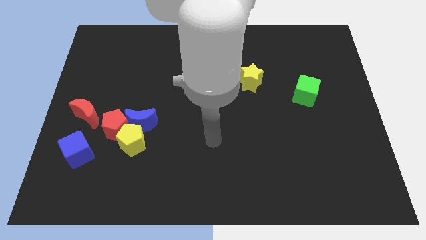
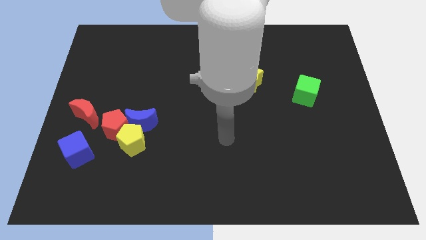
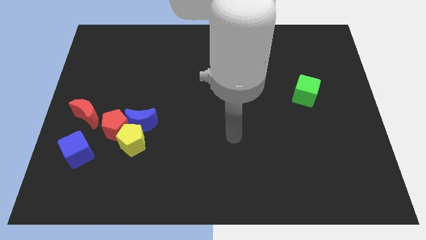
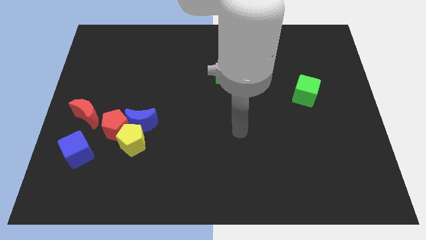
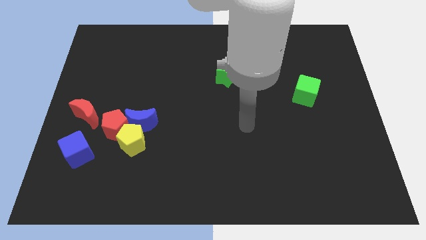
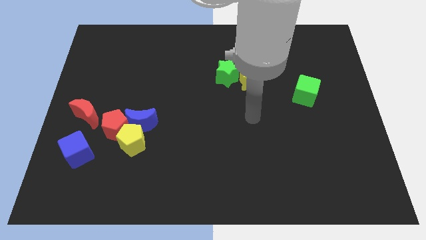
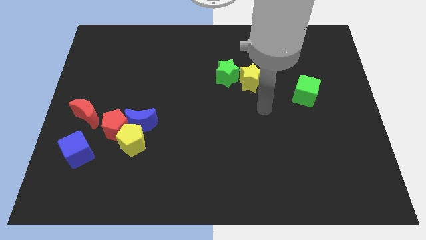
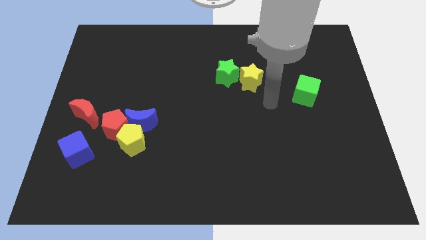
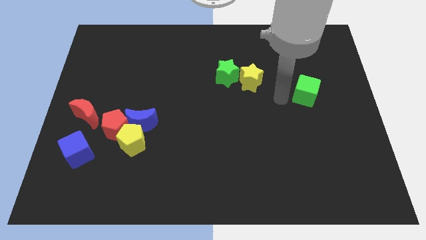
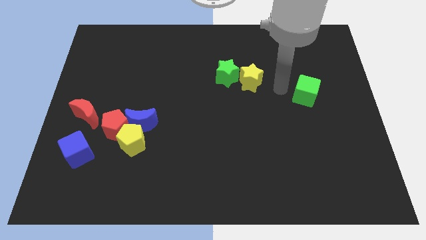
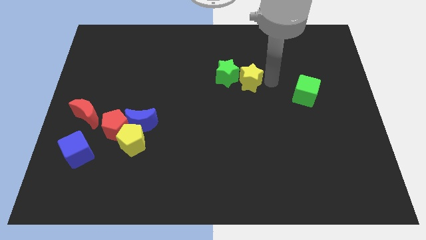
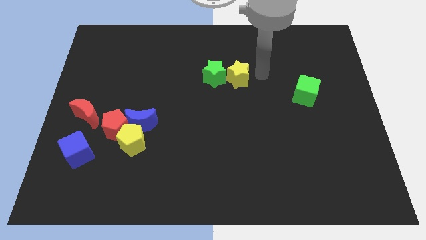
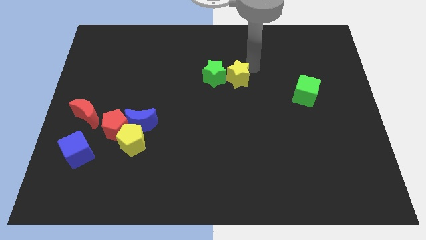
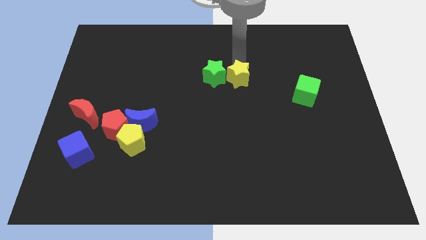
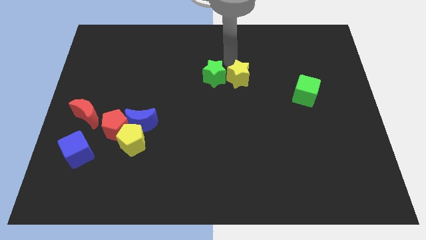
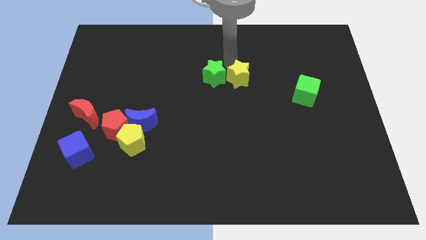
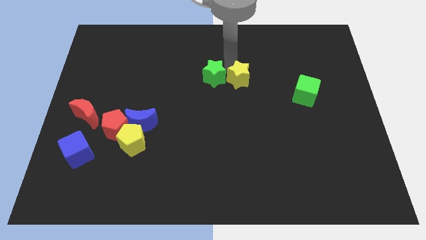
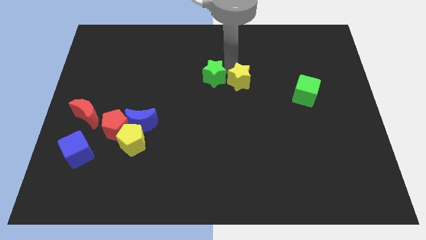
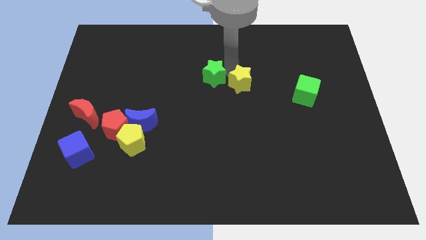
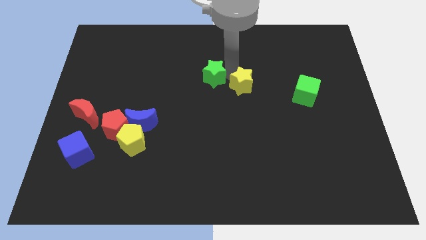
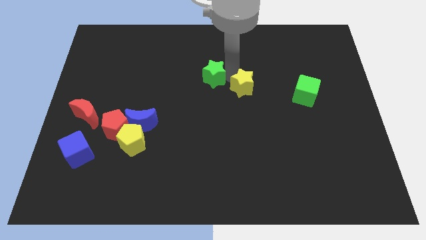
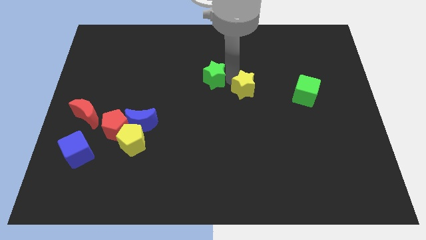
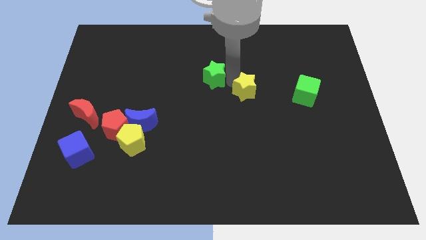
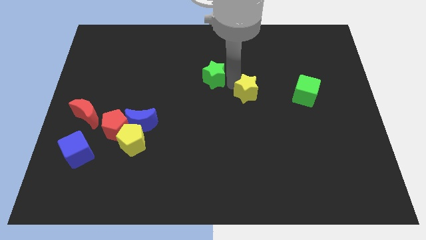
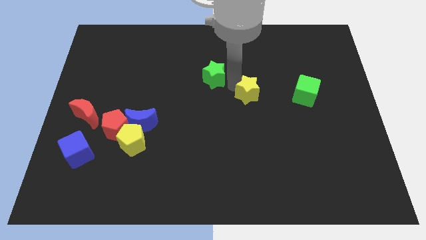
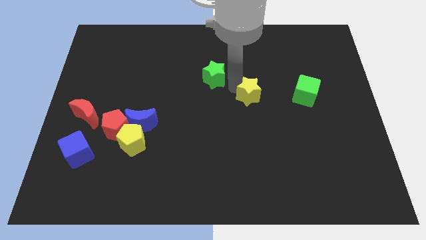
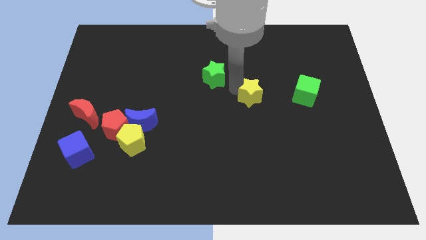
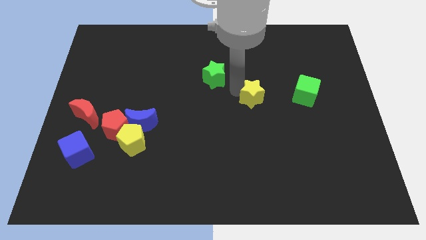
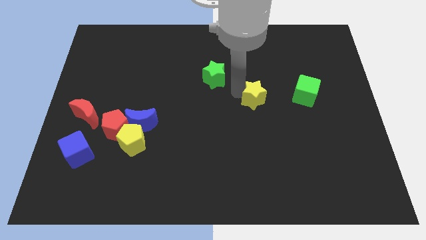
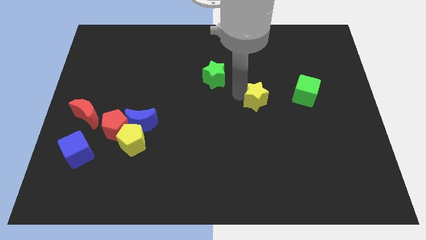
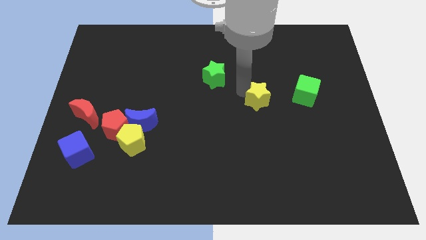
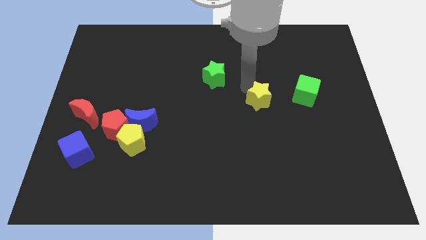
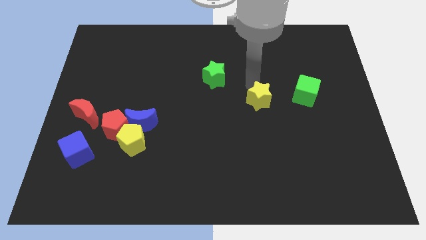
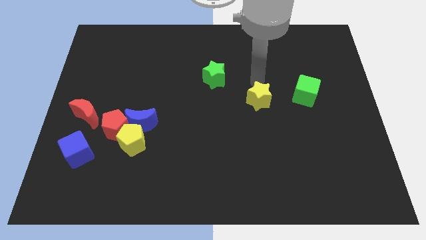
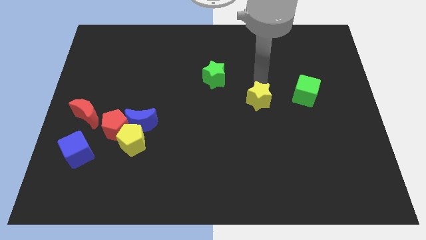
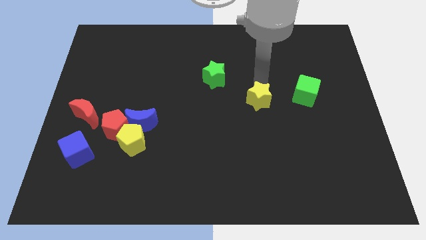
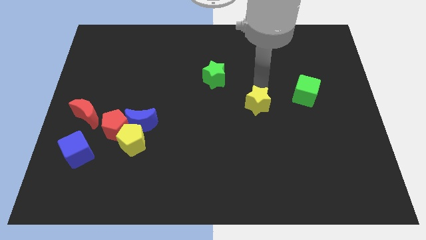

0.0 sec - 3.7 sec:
slide the yellow star slightly downwards

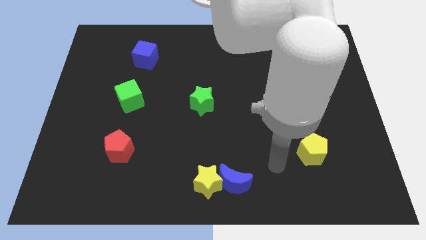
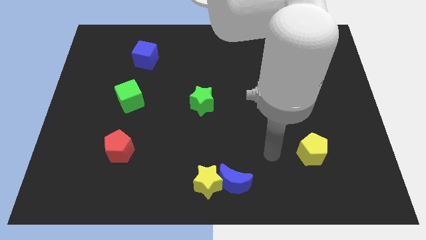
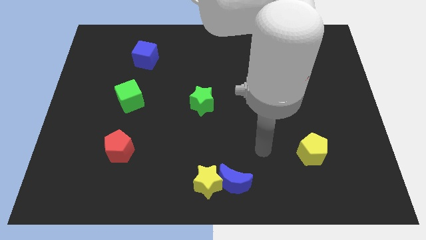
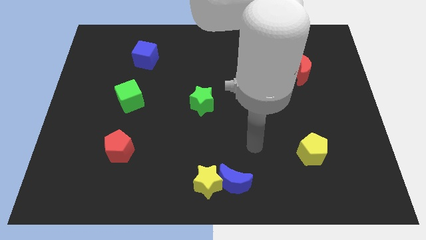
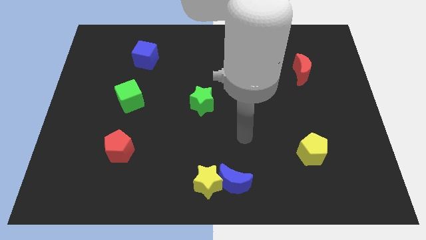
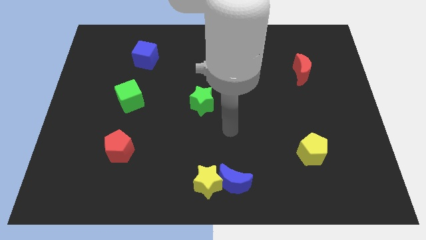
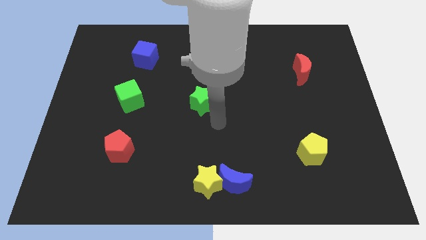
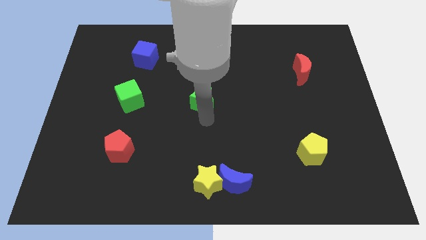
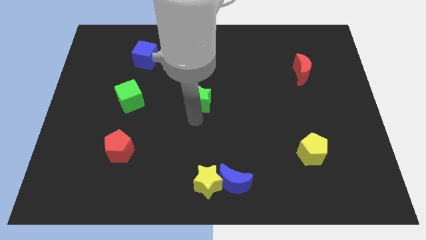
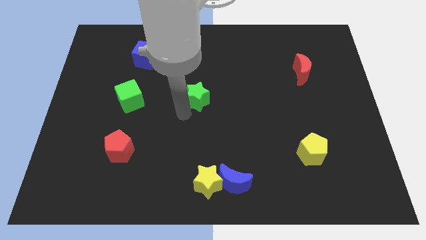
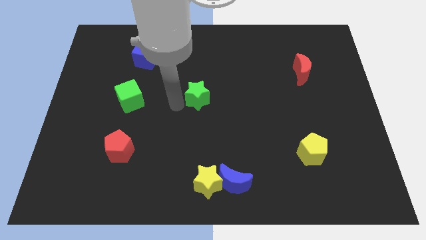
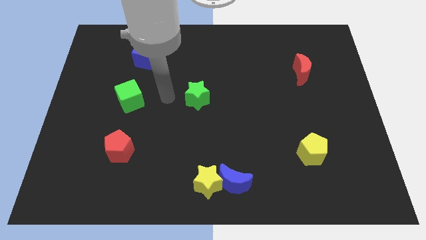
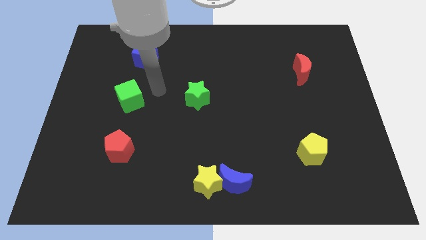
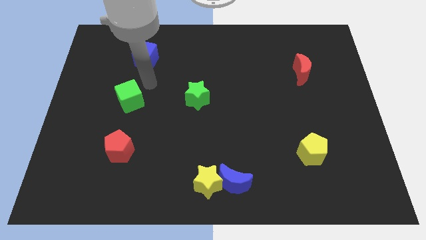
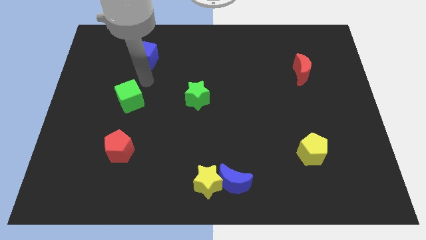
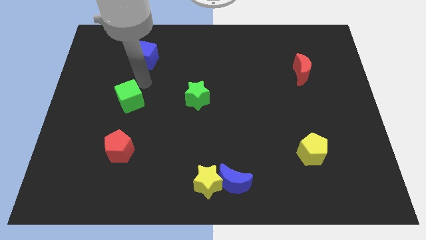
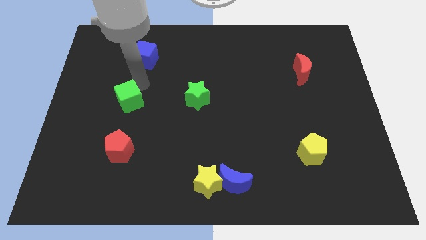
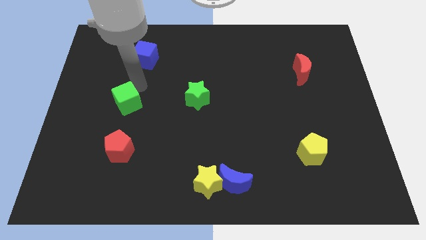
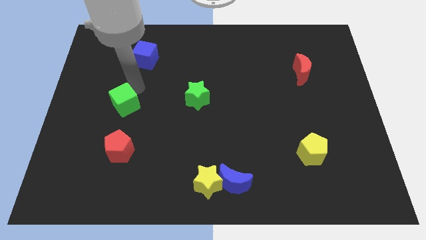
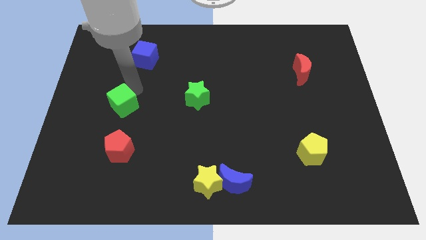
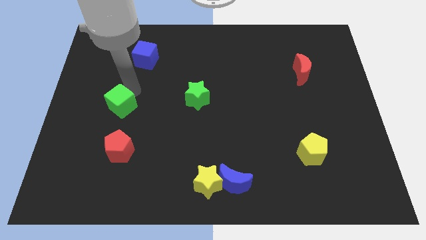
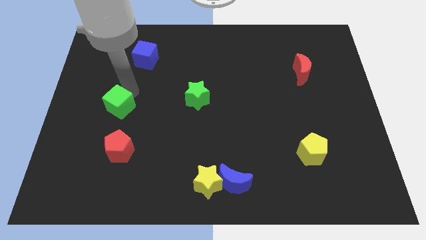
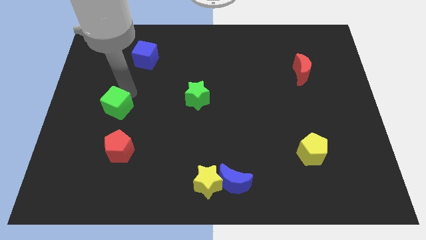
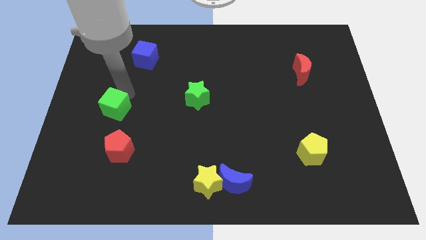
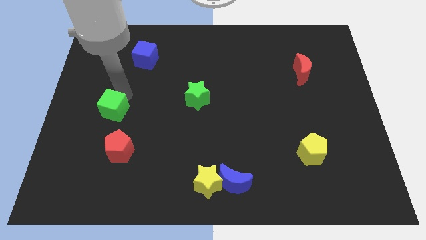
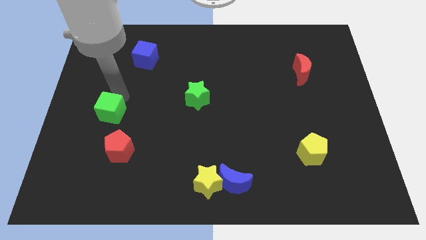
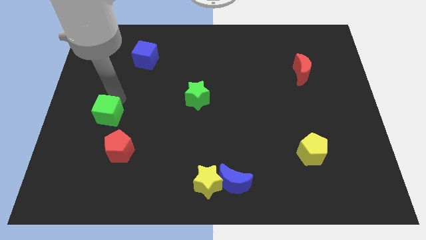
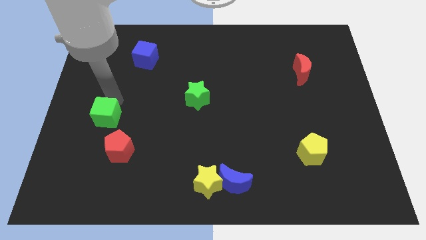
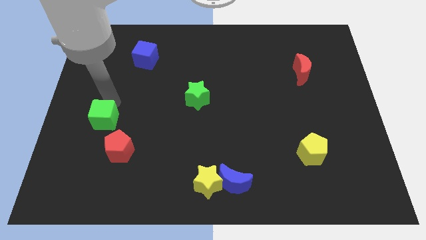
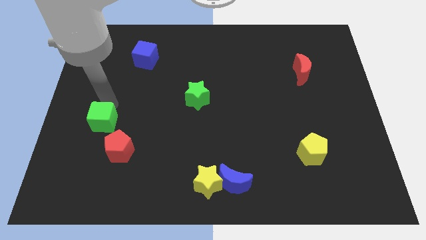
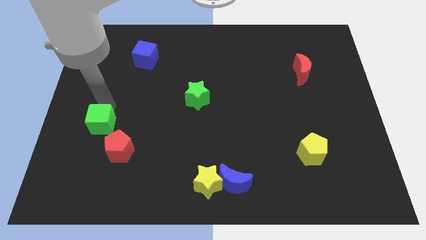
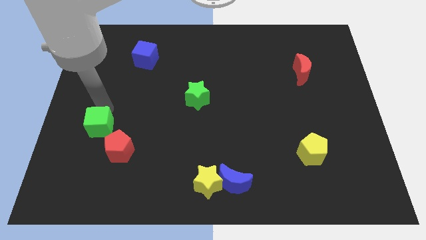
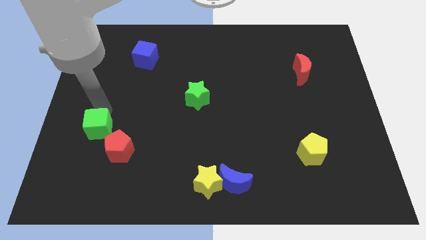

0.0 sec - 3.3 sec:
slide the green cube a little down

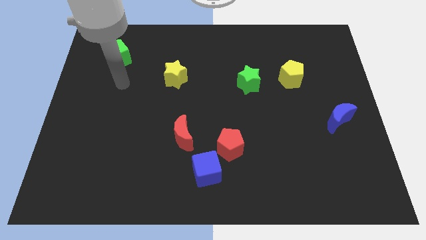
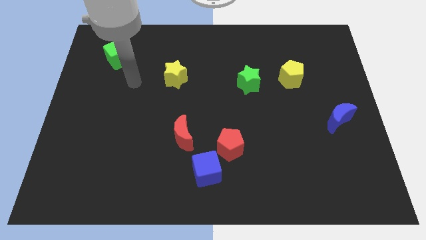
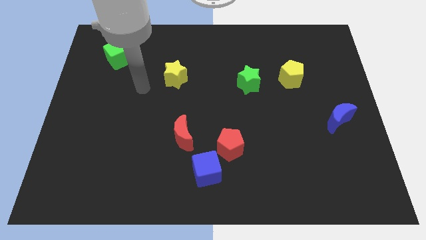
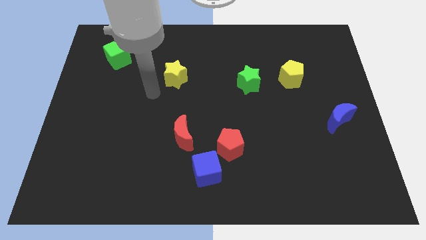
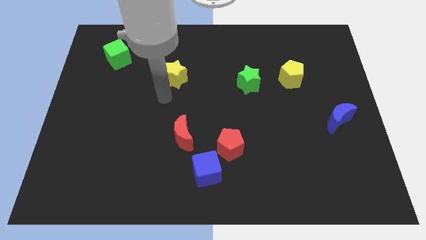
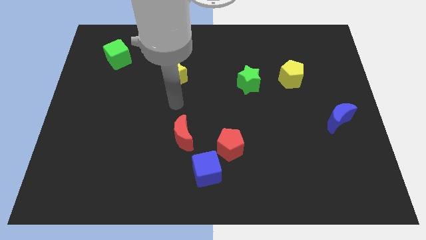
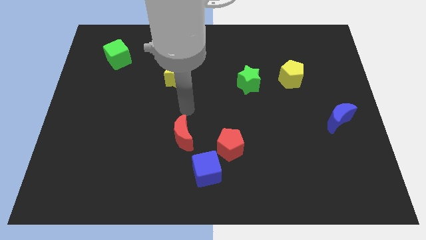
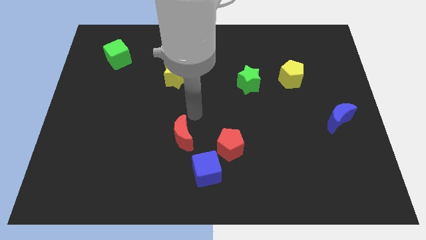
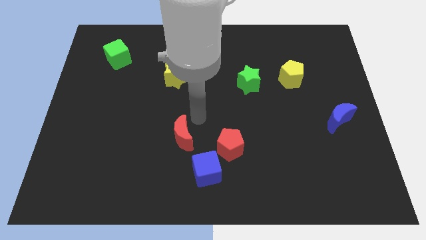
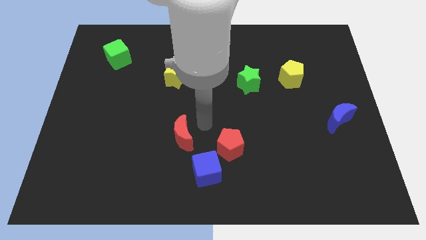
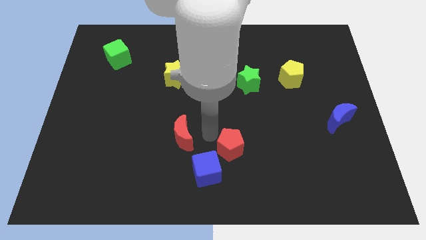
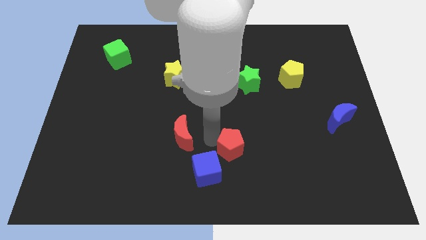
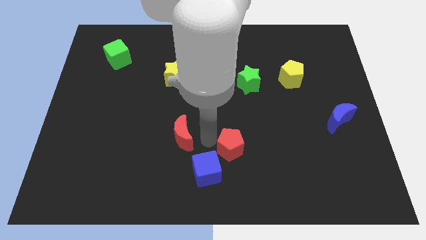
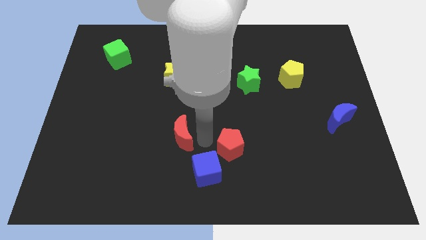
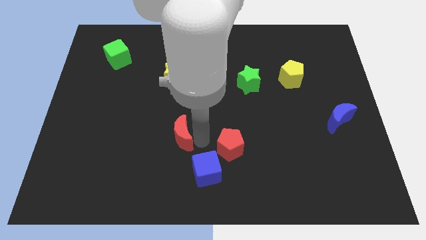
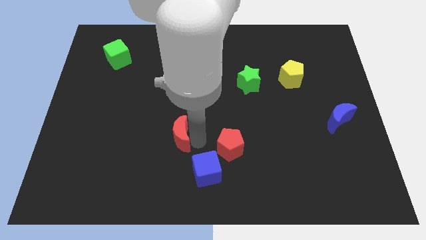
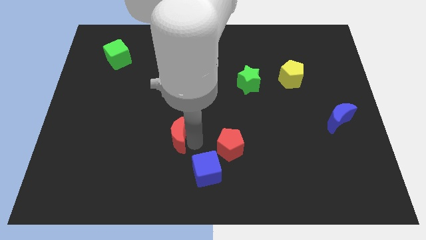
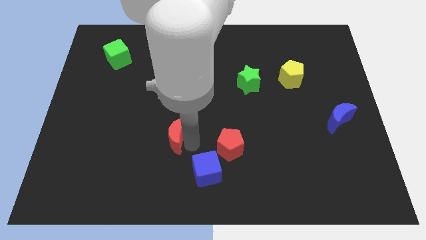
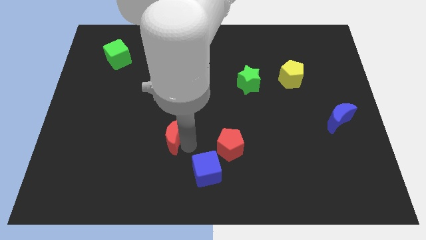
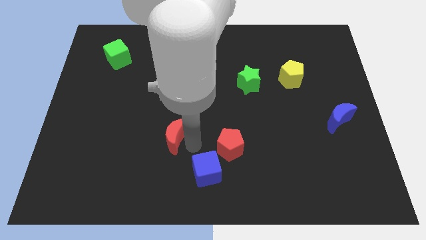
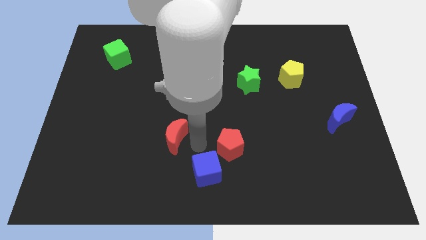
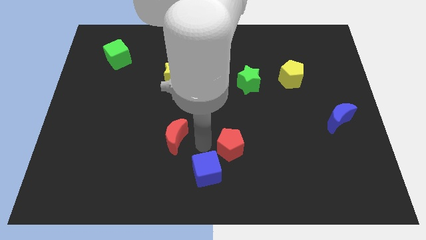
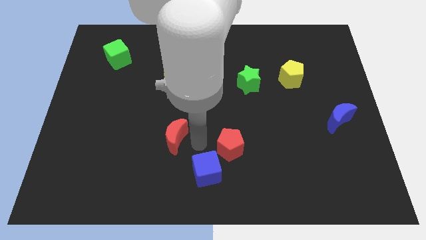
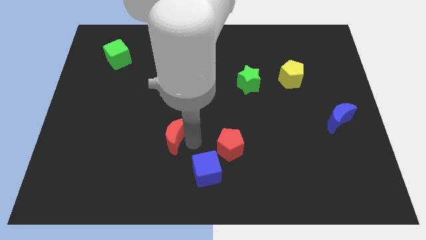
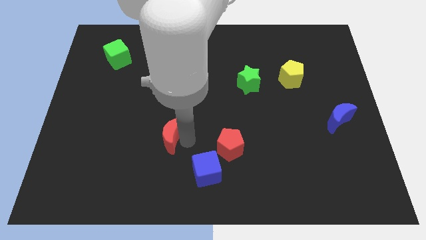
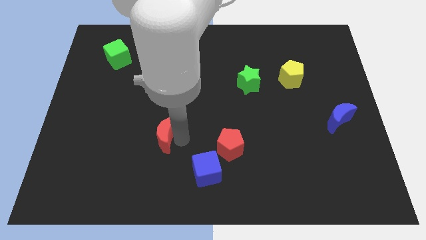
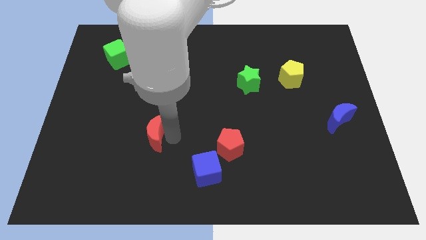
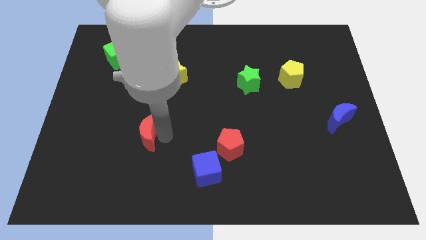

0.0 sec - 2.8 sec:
slightly move the red moon to the left
